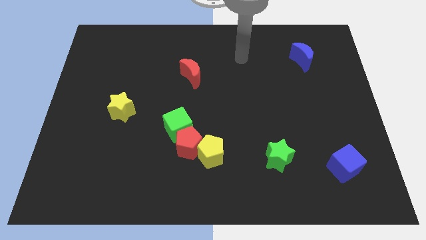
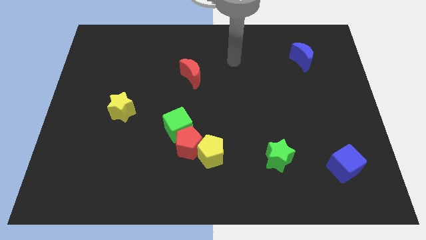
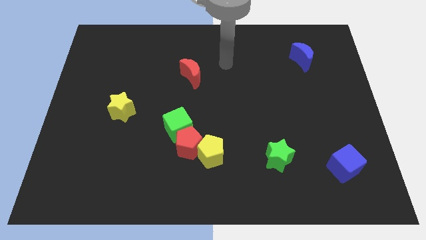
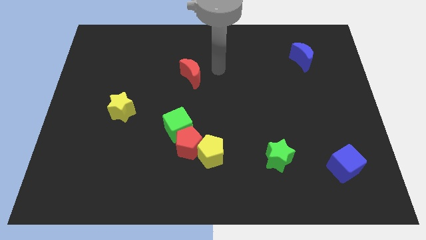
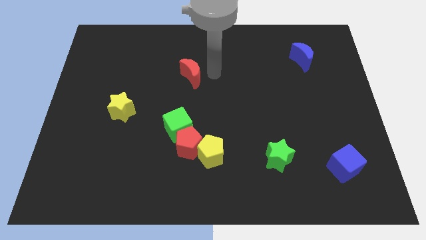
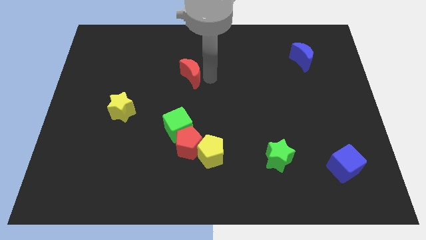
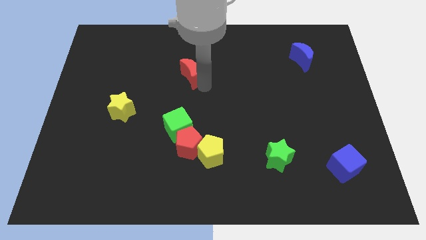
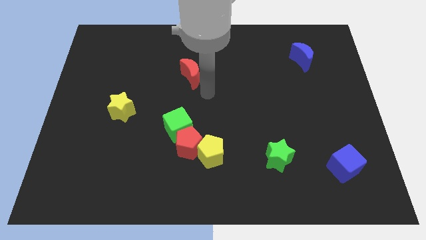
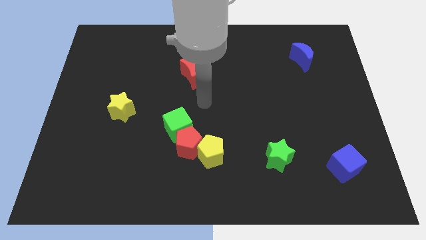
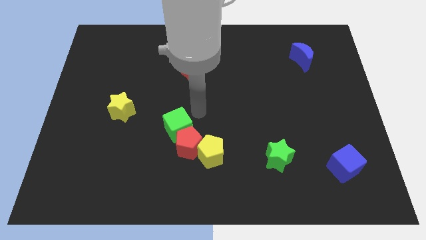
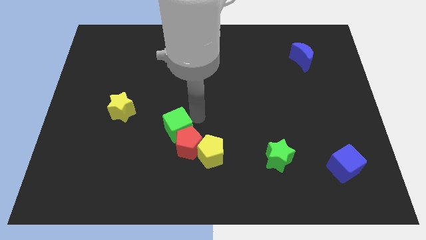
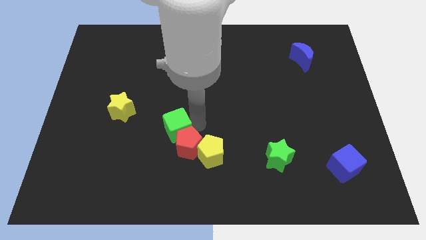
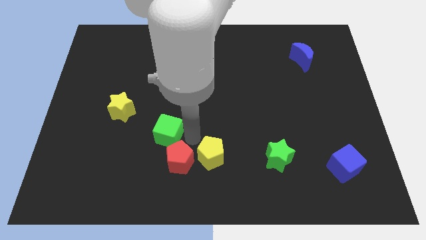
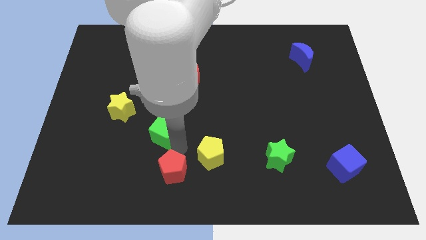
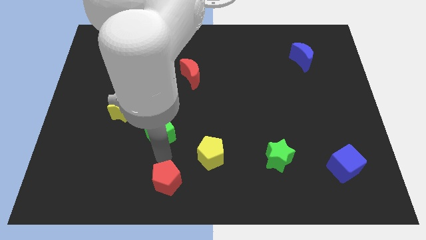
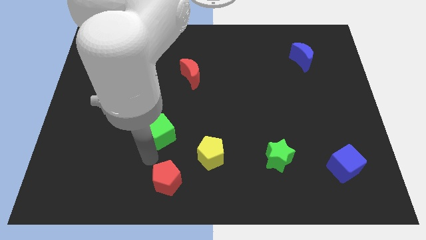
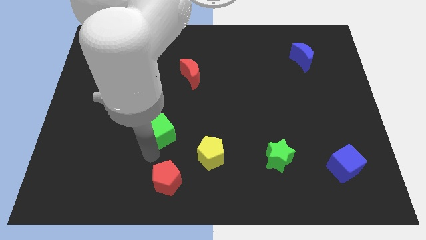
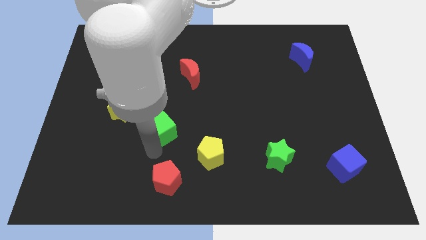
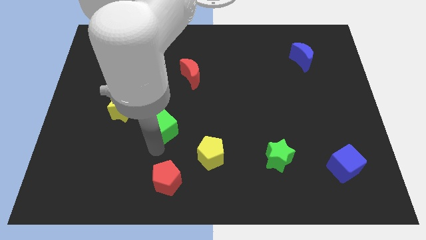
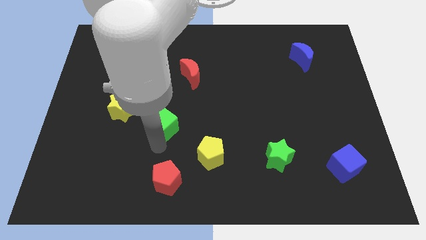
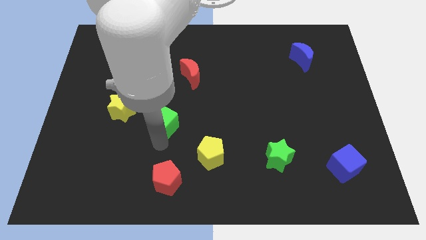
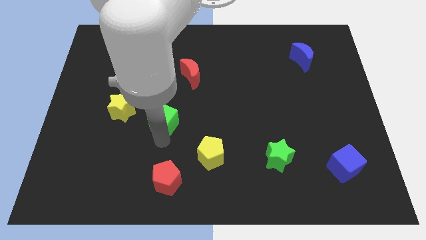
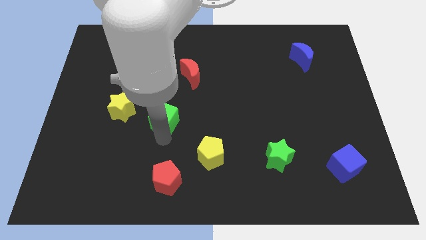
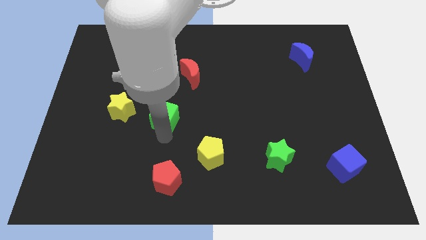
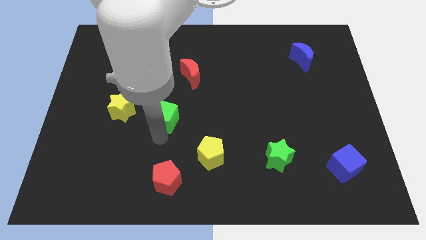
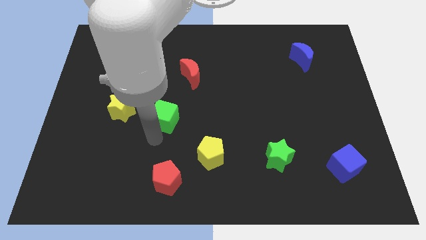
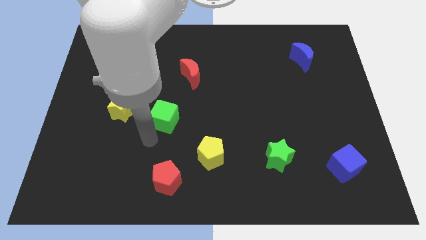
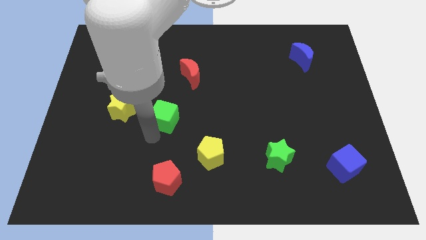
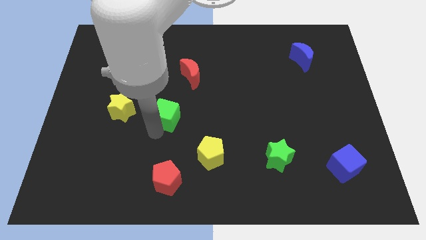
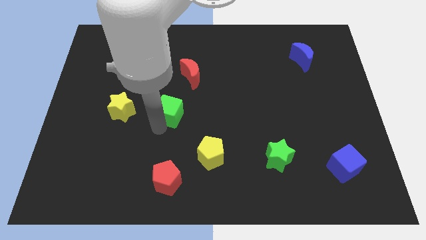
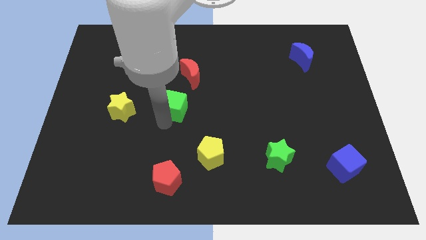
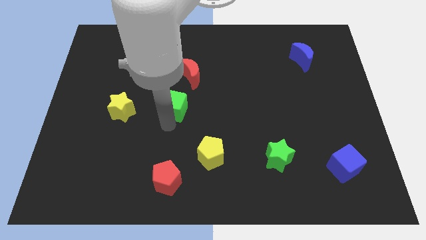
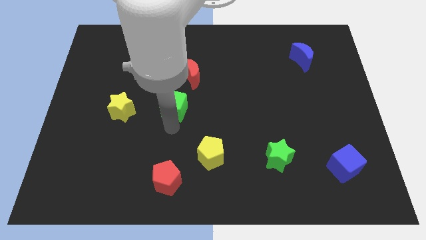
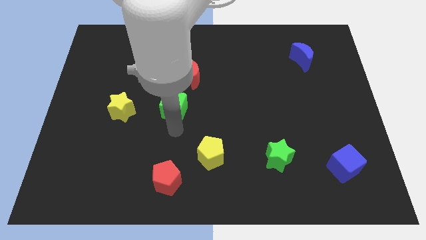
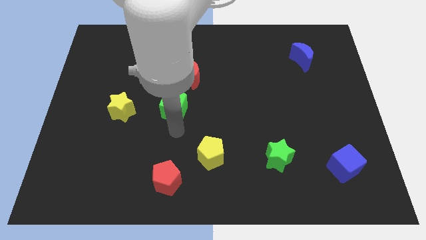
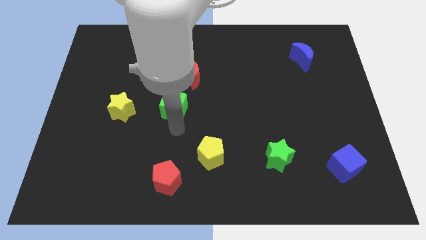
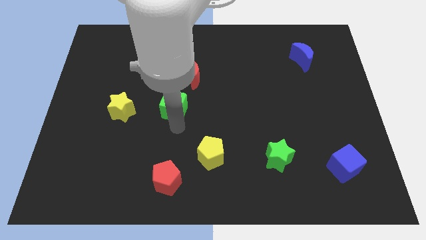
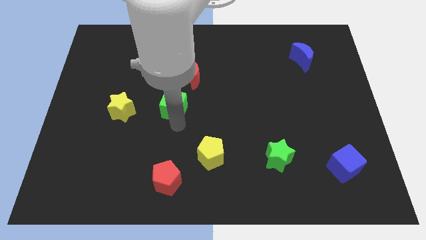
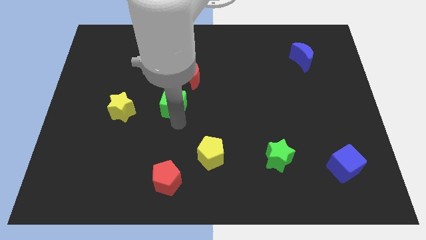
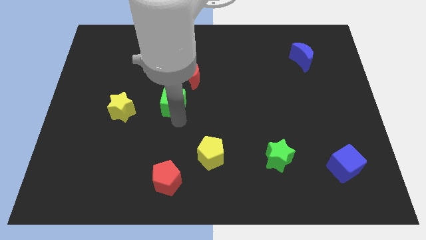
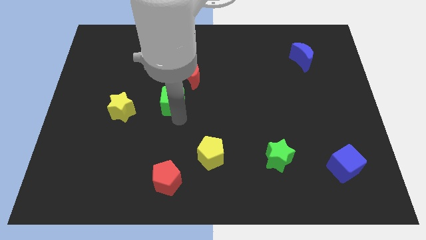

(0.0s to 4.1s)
push the green cube up a bit

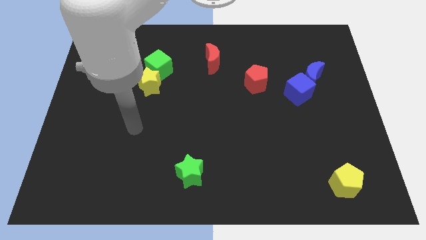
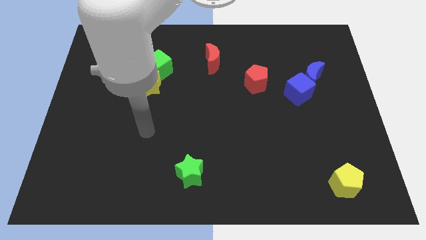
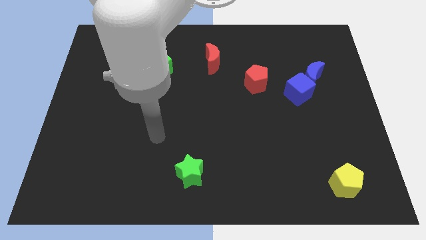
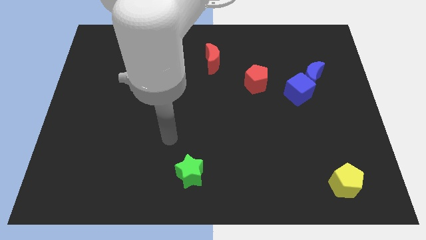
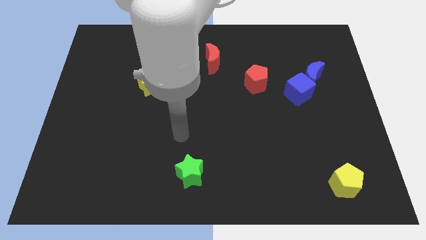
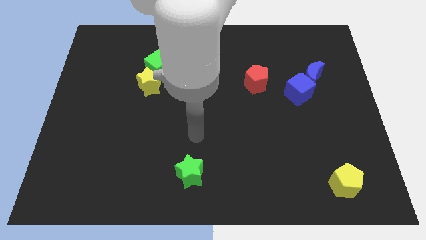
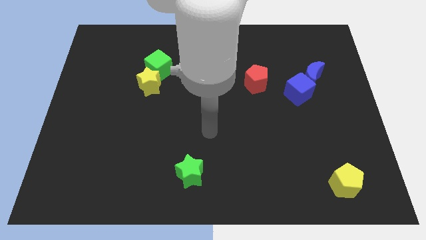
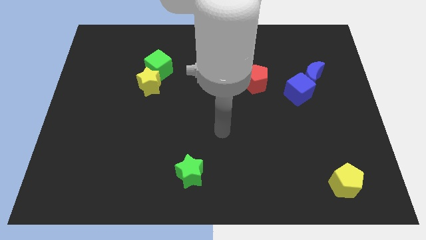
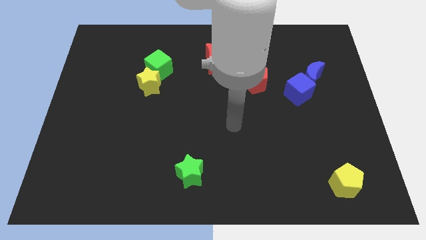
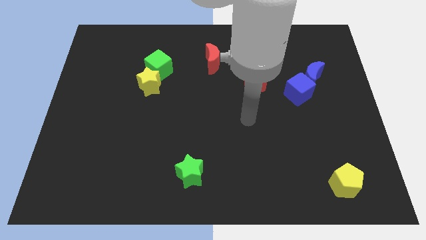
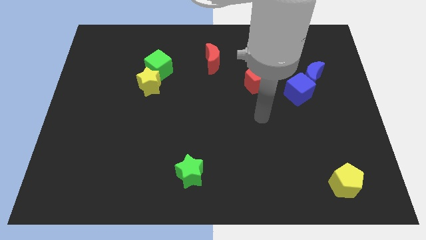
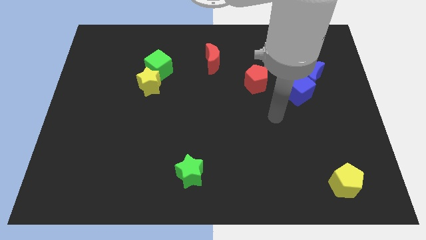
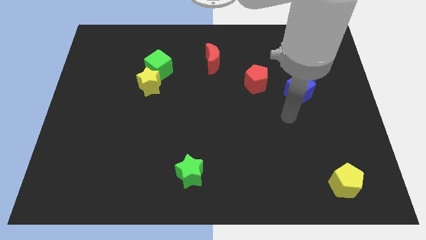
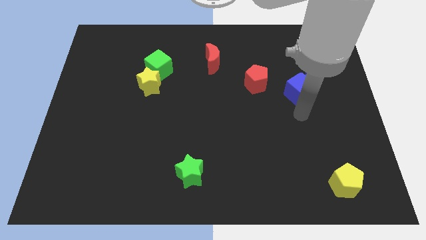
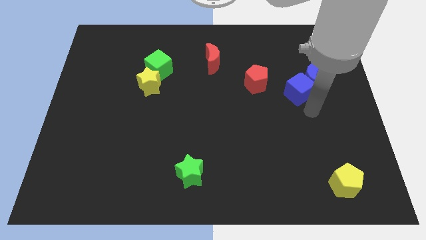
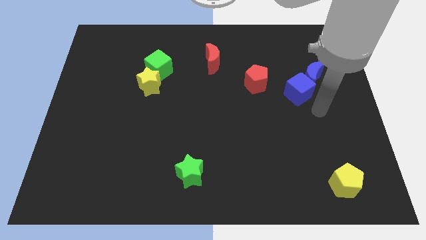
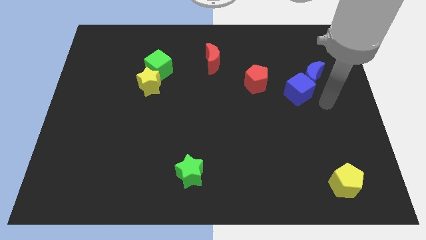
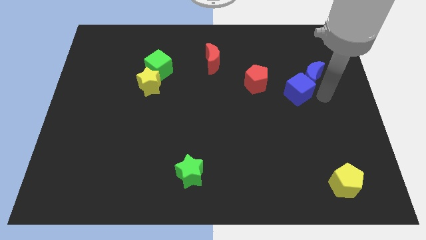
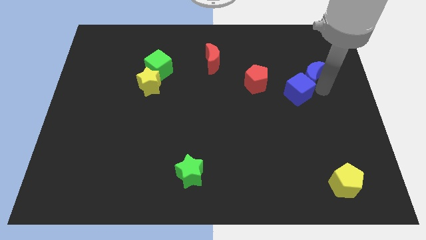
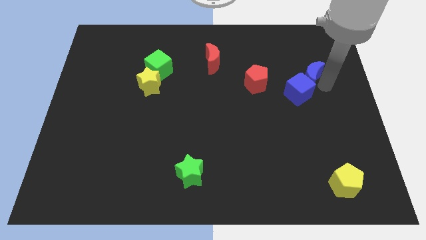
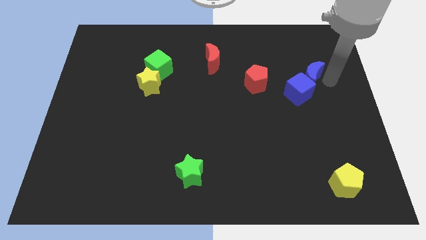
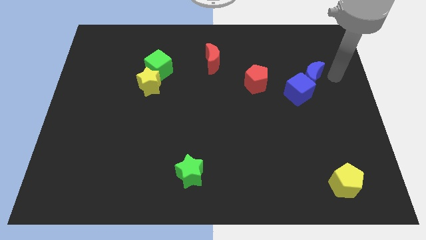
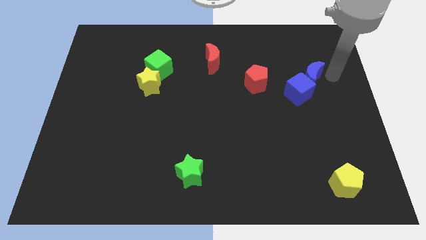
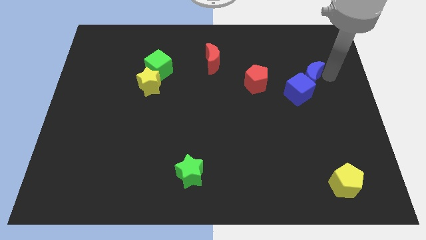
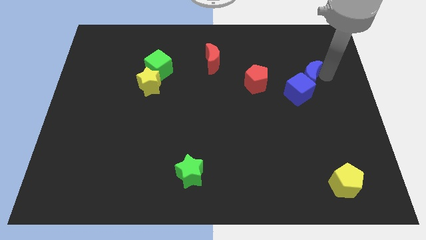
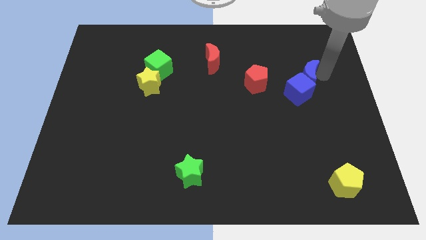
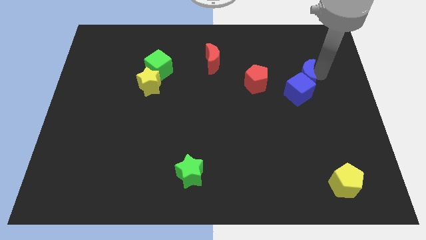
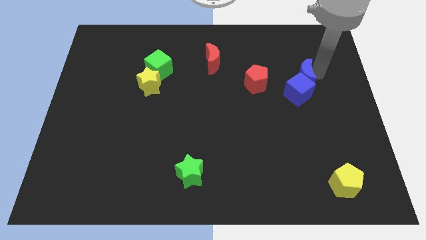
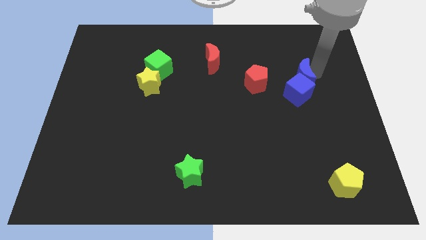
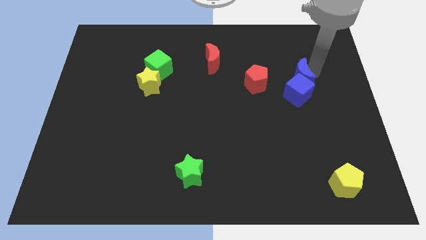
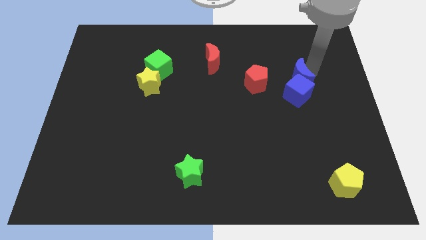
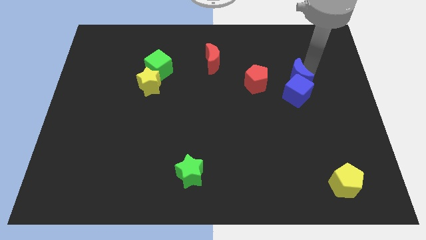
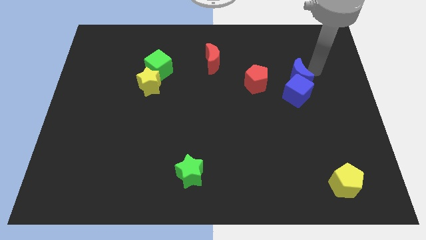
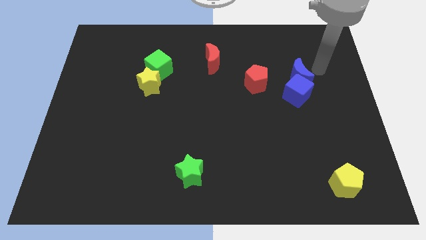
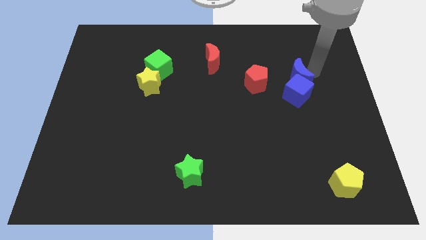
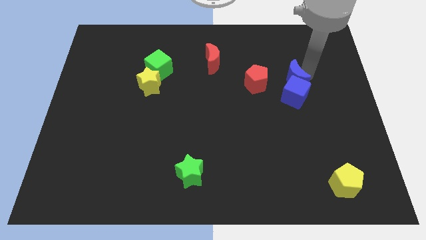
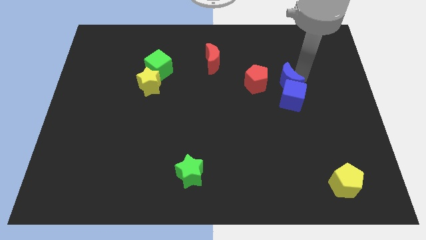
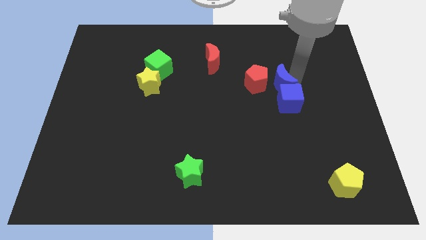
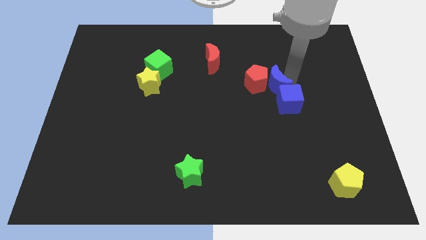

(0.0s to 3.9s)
slightly slide the blue moon downwards and left

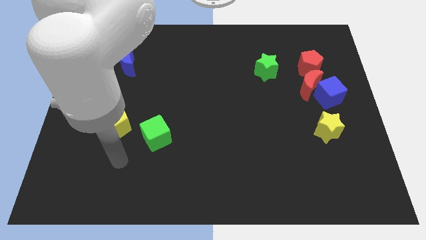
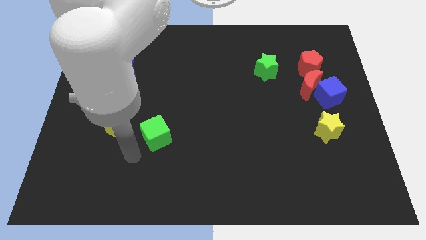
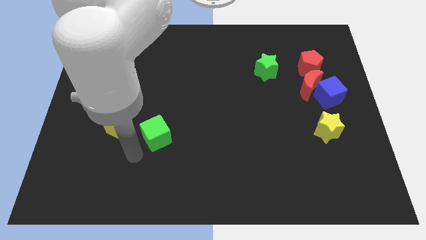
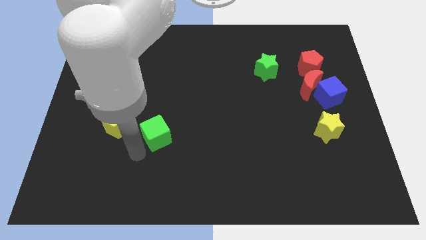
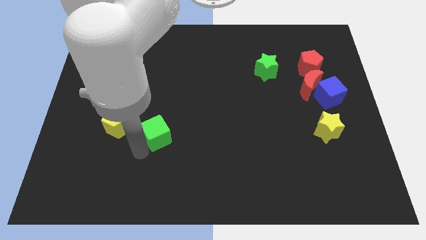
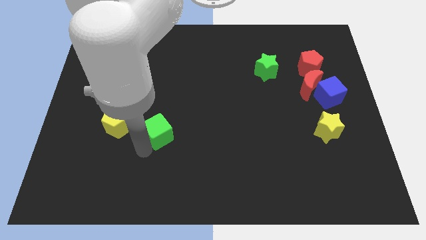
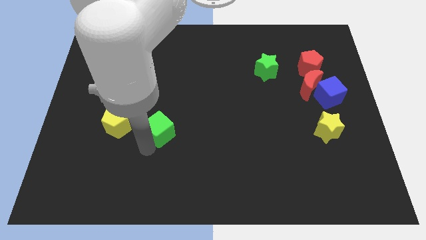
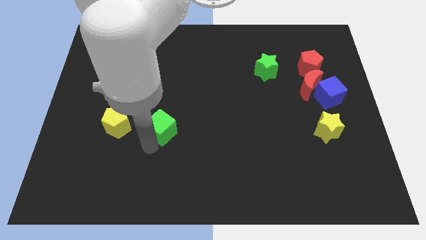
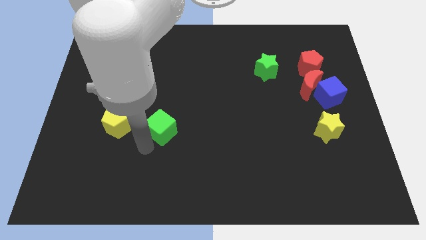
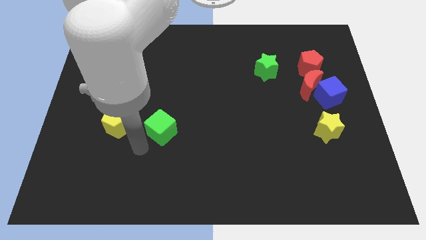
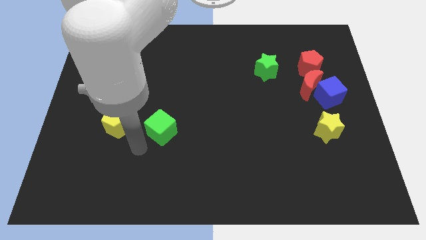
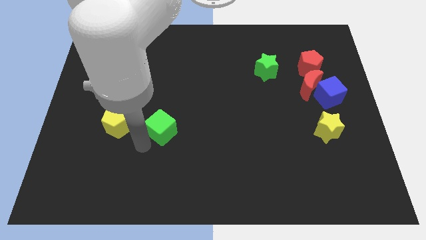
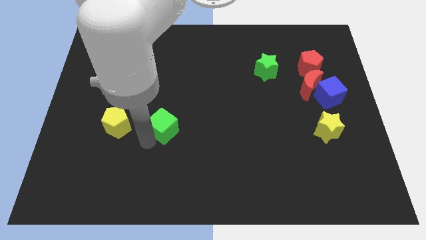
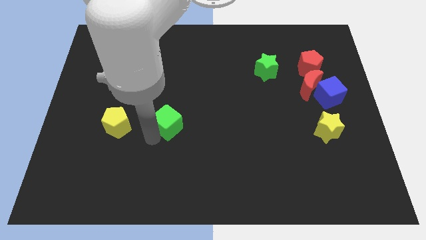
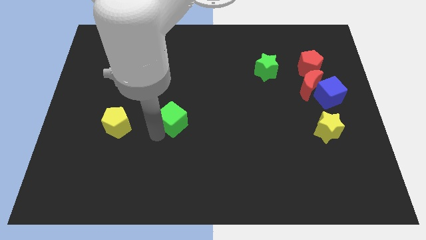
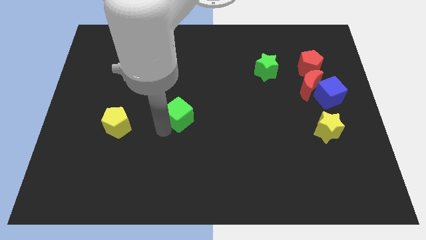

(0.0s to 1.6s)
slightly slide the green cube diagonally up and right
